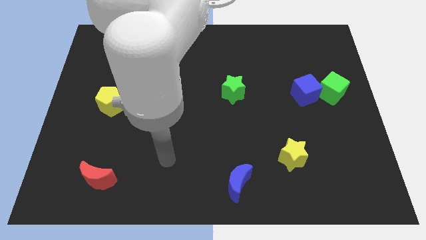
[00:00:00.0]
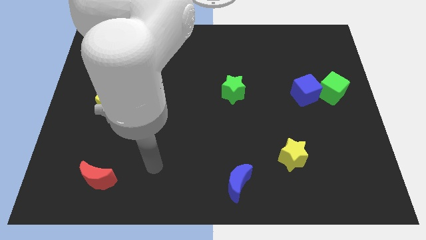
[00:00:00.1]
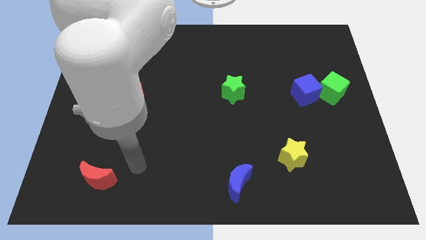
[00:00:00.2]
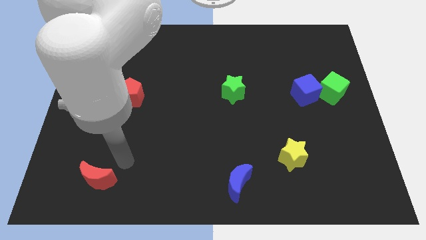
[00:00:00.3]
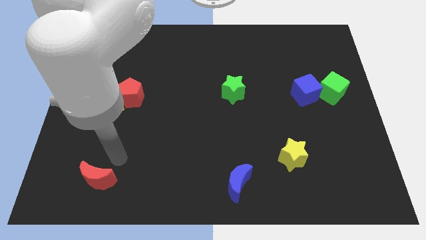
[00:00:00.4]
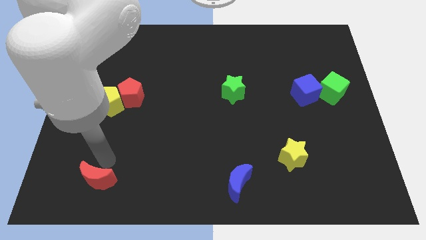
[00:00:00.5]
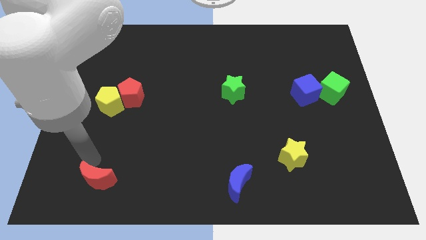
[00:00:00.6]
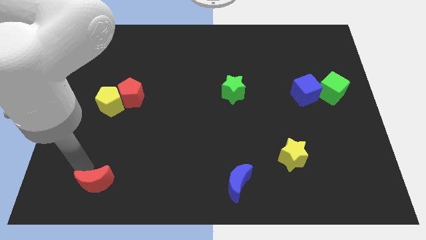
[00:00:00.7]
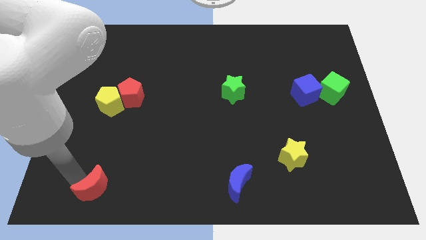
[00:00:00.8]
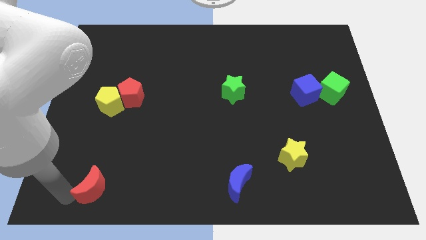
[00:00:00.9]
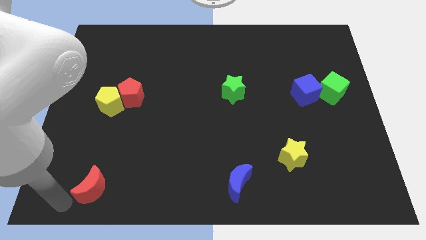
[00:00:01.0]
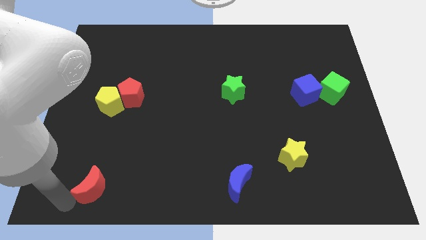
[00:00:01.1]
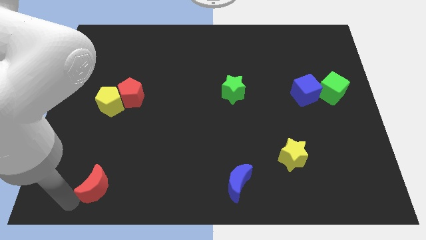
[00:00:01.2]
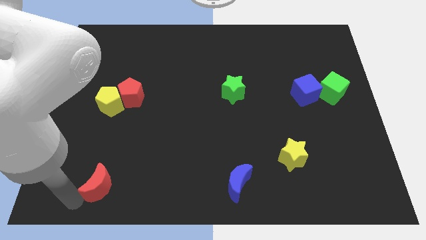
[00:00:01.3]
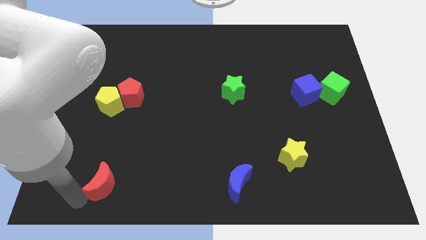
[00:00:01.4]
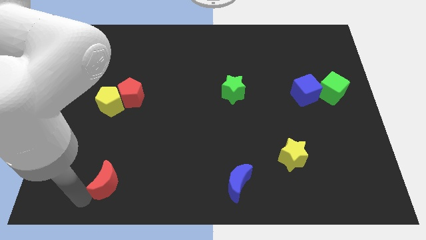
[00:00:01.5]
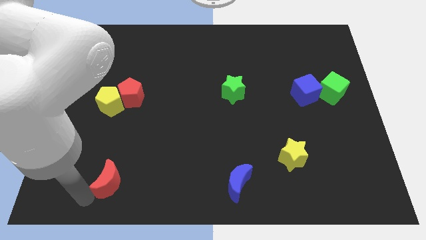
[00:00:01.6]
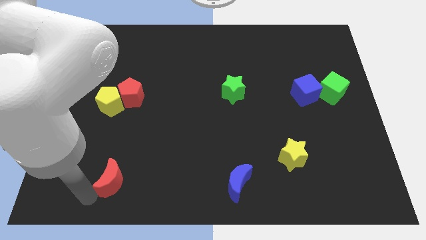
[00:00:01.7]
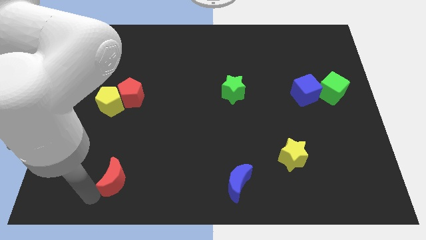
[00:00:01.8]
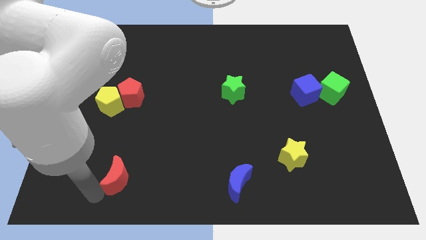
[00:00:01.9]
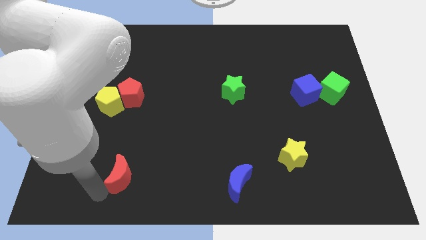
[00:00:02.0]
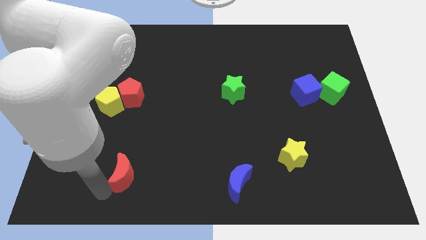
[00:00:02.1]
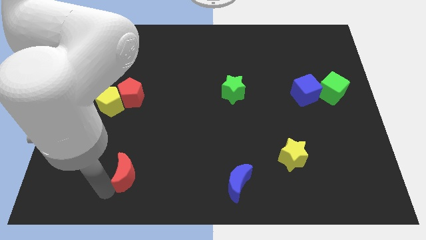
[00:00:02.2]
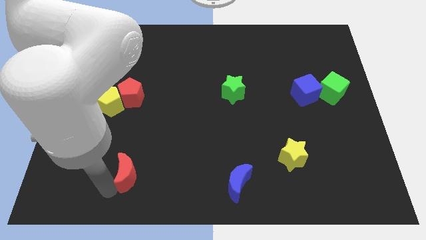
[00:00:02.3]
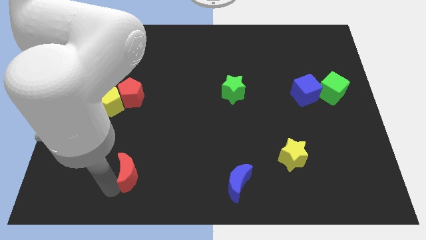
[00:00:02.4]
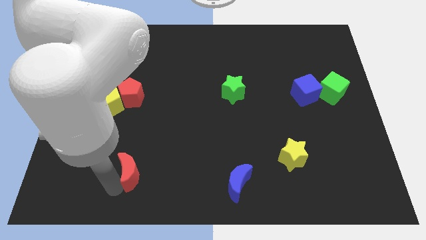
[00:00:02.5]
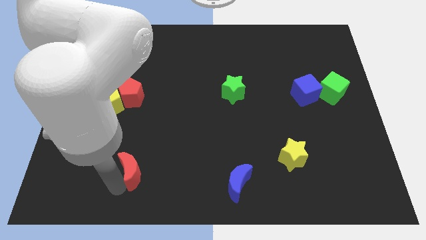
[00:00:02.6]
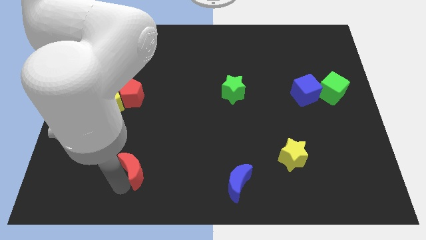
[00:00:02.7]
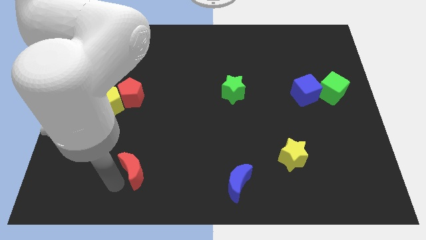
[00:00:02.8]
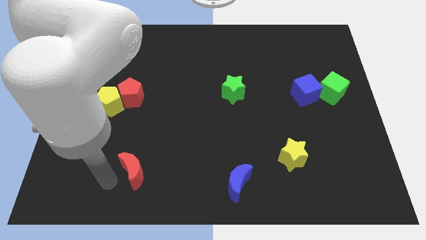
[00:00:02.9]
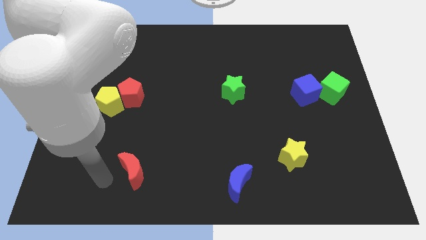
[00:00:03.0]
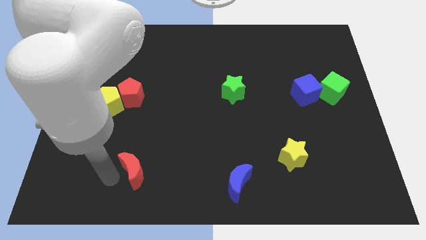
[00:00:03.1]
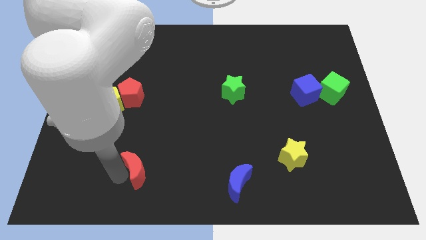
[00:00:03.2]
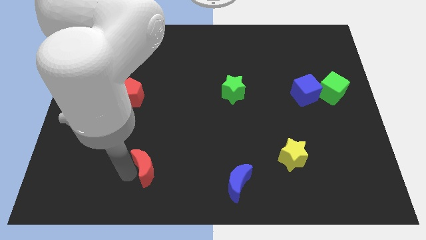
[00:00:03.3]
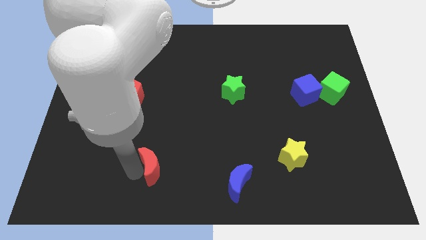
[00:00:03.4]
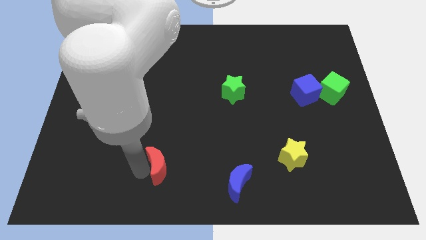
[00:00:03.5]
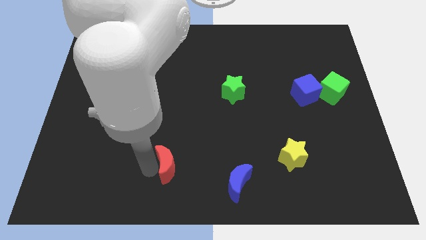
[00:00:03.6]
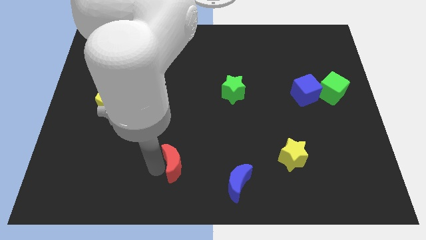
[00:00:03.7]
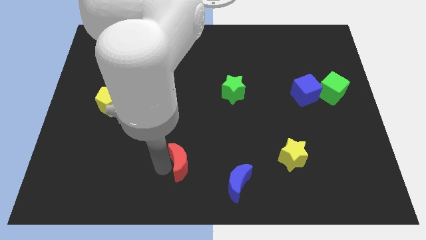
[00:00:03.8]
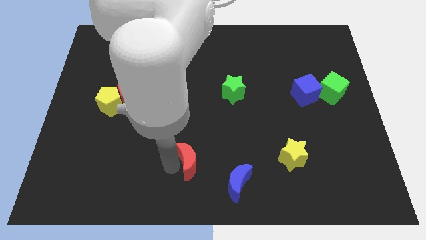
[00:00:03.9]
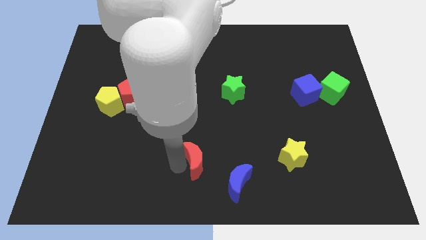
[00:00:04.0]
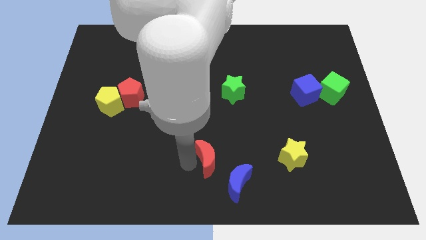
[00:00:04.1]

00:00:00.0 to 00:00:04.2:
slide the red moon right

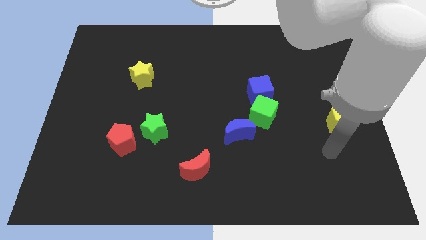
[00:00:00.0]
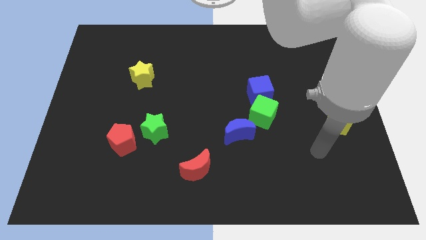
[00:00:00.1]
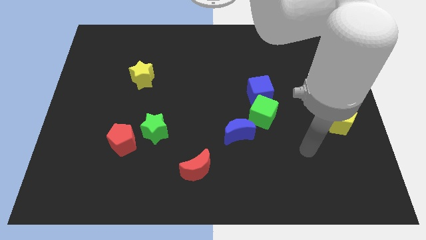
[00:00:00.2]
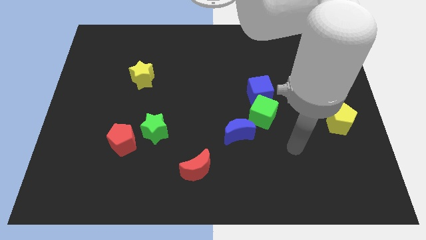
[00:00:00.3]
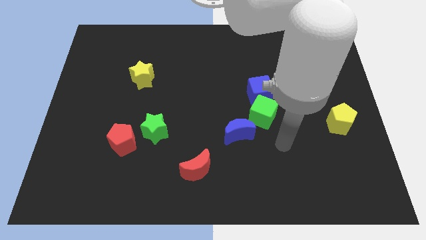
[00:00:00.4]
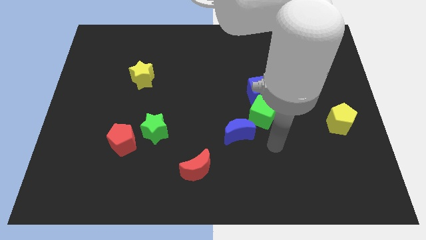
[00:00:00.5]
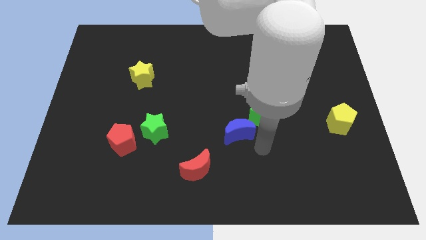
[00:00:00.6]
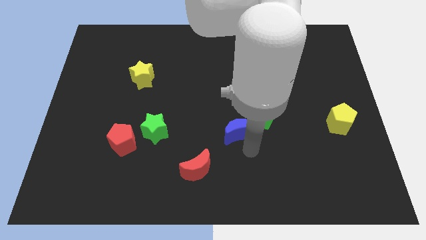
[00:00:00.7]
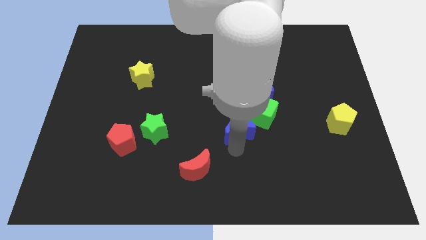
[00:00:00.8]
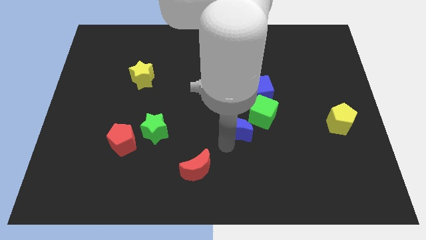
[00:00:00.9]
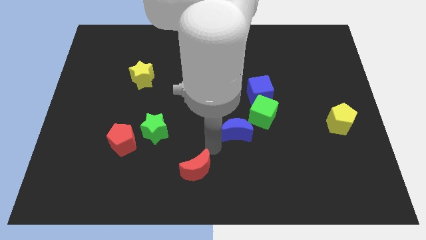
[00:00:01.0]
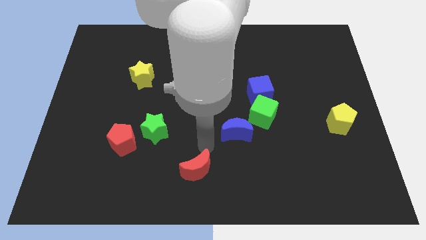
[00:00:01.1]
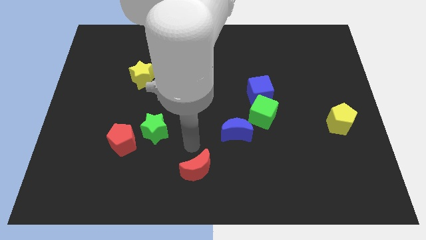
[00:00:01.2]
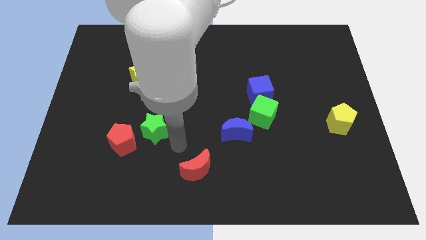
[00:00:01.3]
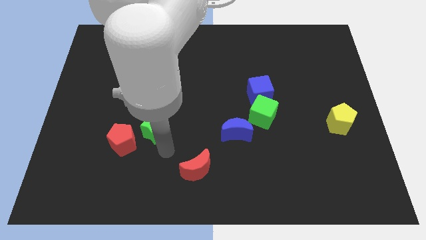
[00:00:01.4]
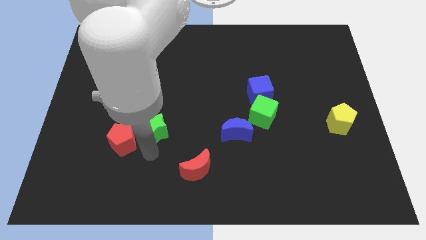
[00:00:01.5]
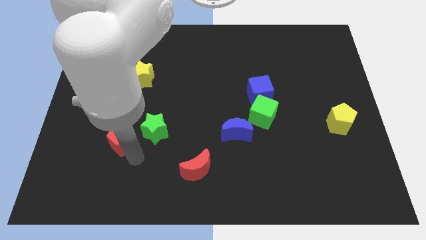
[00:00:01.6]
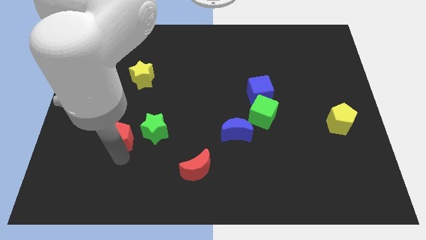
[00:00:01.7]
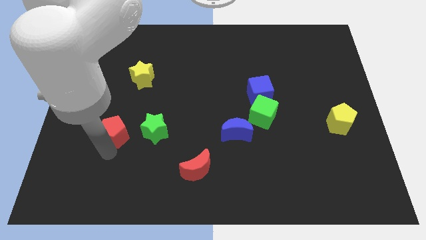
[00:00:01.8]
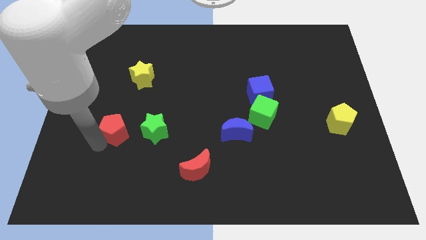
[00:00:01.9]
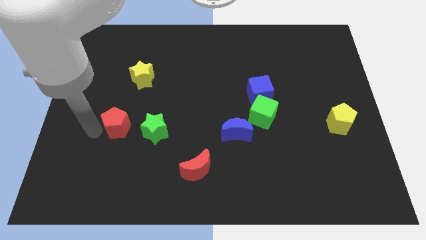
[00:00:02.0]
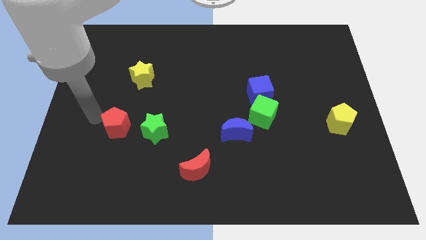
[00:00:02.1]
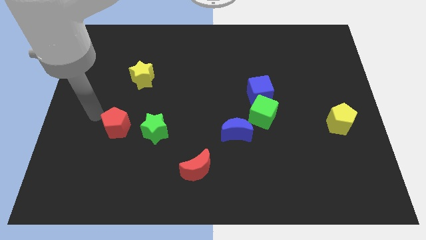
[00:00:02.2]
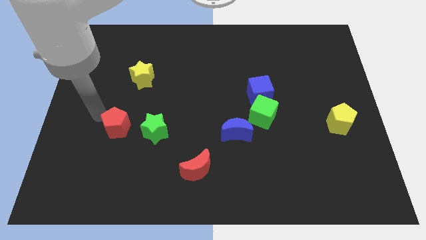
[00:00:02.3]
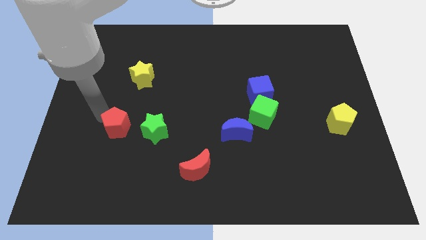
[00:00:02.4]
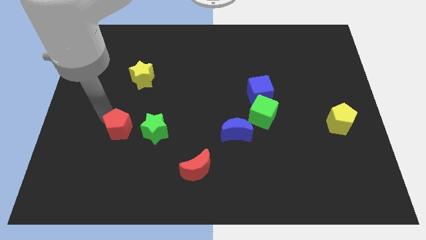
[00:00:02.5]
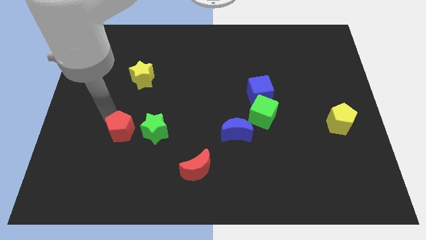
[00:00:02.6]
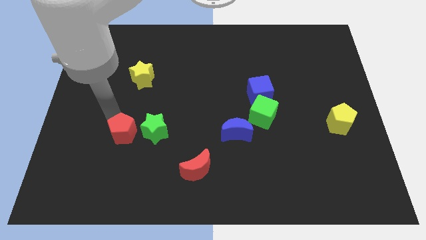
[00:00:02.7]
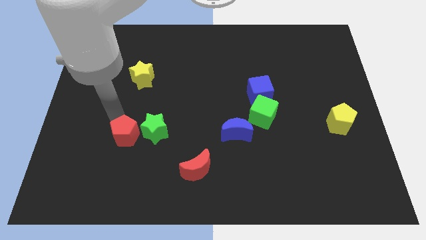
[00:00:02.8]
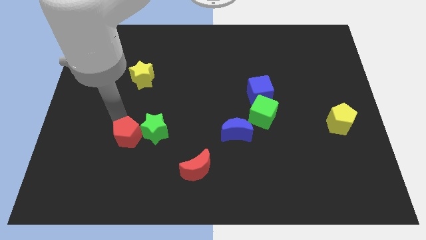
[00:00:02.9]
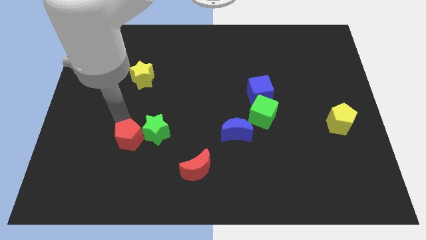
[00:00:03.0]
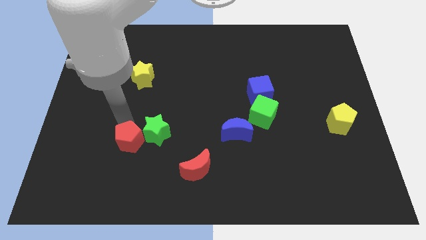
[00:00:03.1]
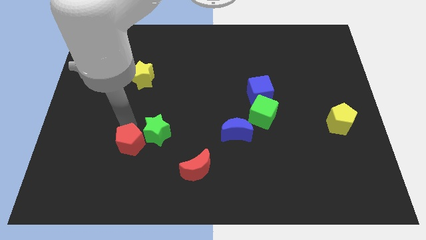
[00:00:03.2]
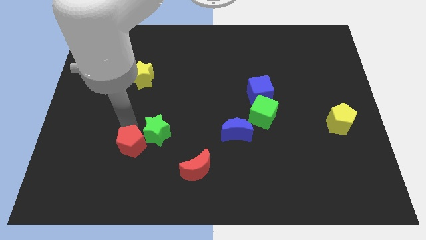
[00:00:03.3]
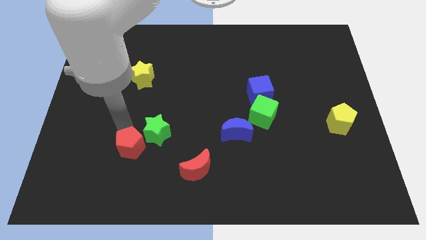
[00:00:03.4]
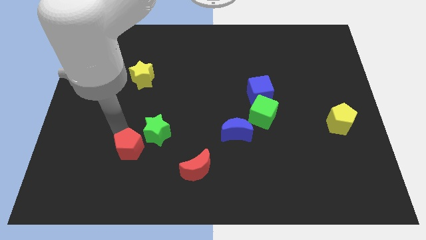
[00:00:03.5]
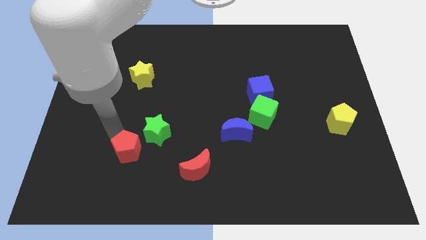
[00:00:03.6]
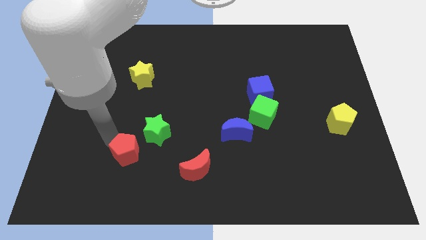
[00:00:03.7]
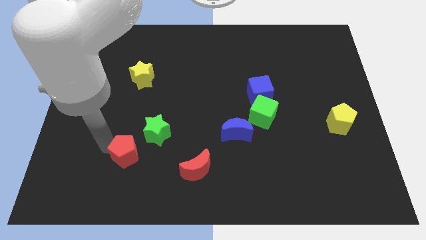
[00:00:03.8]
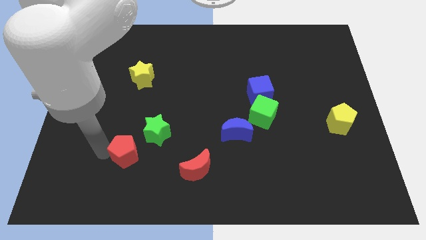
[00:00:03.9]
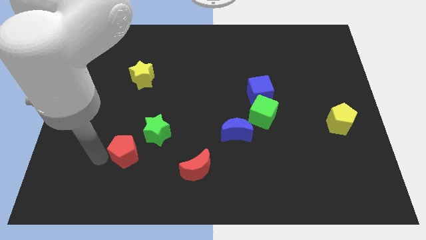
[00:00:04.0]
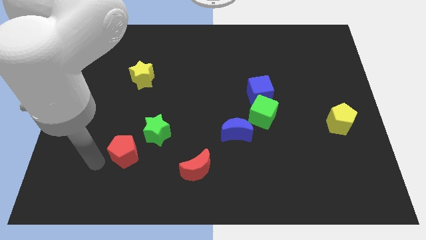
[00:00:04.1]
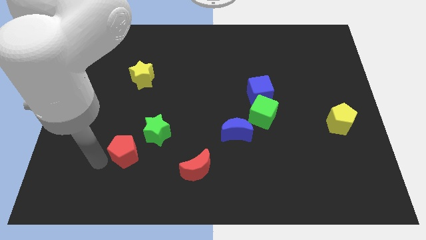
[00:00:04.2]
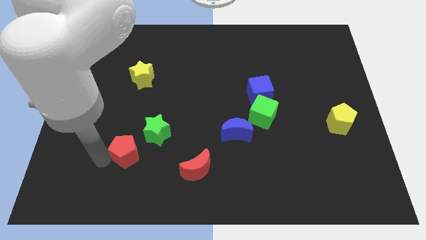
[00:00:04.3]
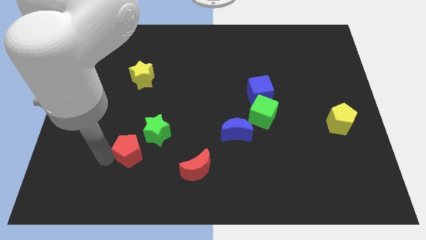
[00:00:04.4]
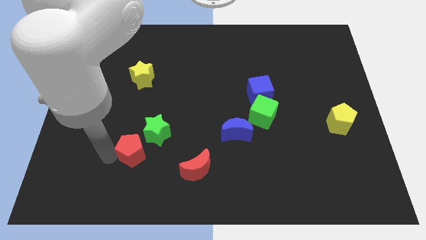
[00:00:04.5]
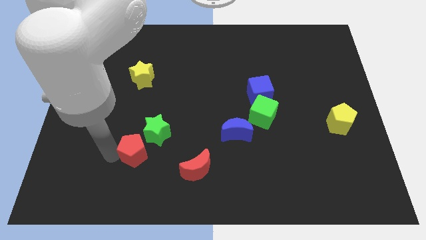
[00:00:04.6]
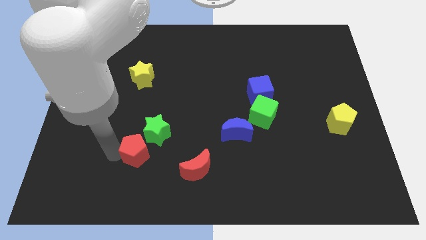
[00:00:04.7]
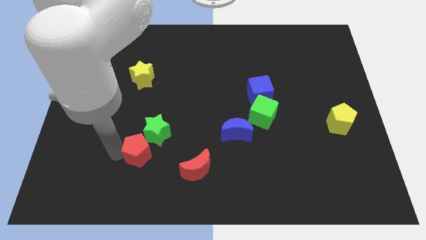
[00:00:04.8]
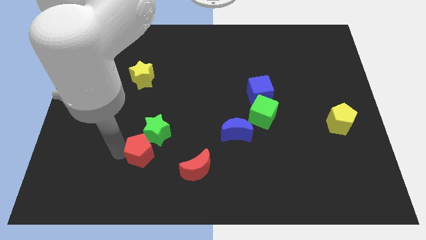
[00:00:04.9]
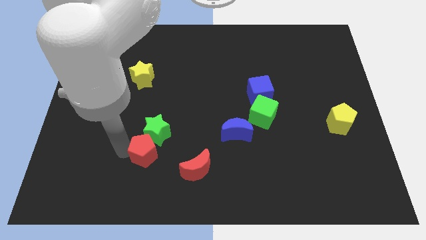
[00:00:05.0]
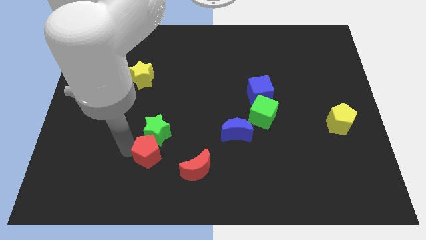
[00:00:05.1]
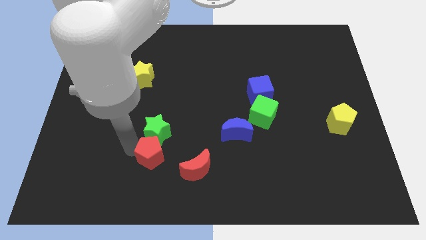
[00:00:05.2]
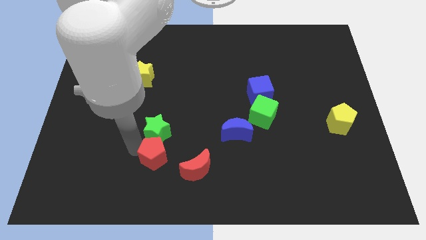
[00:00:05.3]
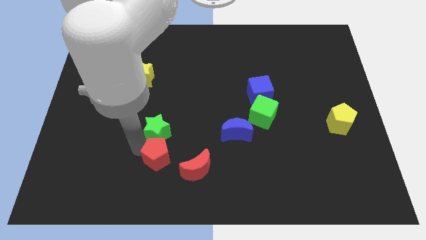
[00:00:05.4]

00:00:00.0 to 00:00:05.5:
push the red pentagon right slightly
